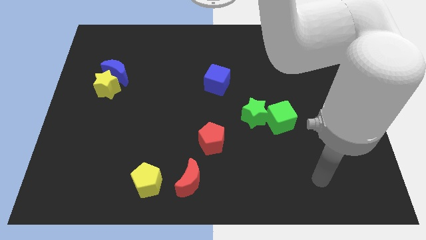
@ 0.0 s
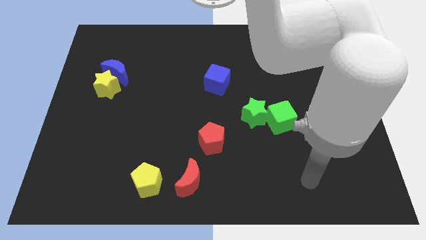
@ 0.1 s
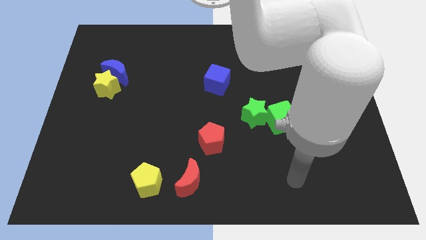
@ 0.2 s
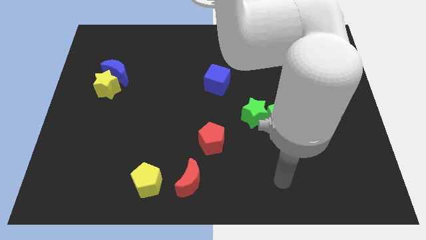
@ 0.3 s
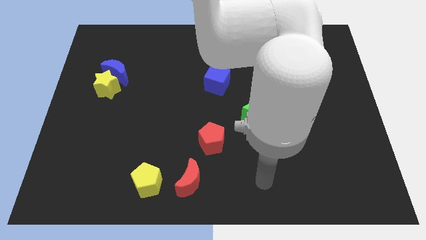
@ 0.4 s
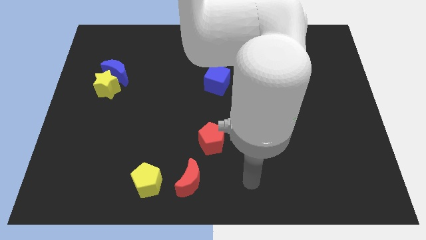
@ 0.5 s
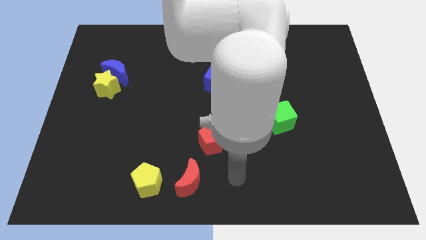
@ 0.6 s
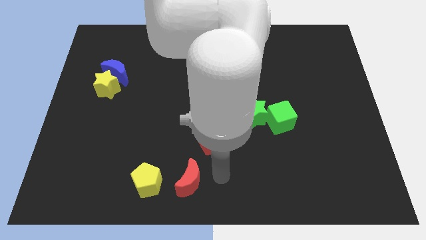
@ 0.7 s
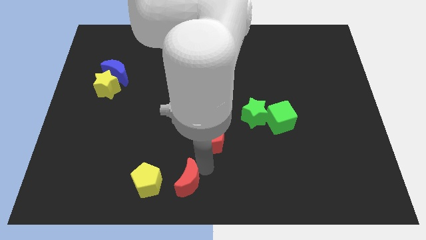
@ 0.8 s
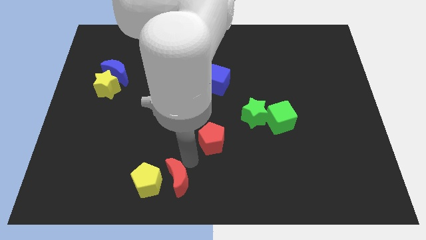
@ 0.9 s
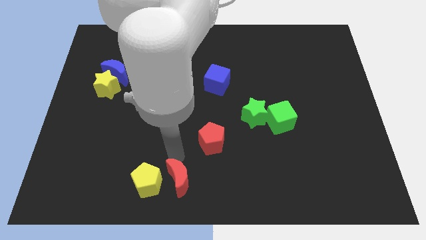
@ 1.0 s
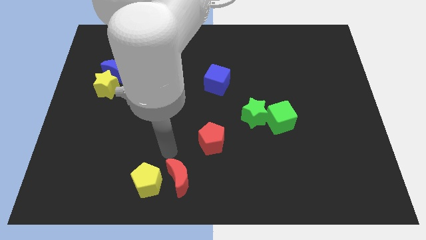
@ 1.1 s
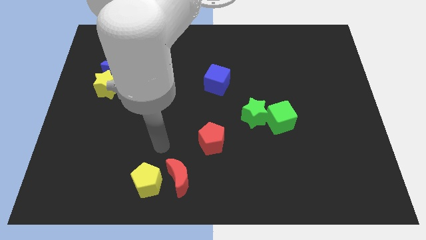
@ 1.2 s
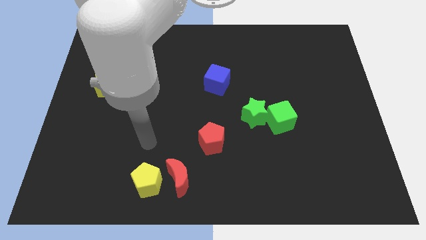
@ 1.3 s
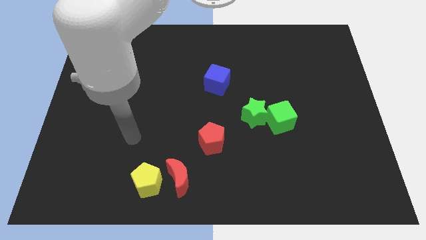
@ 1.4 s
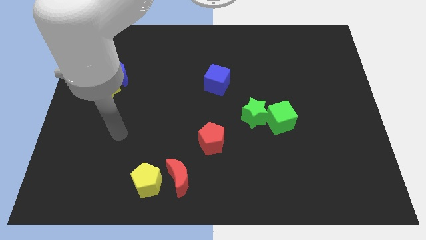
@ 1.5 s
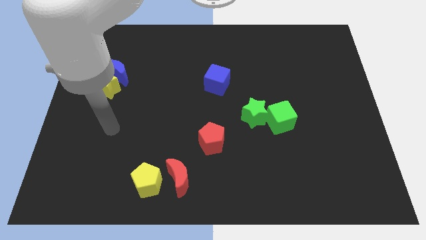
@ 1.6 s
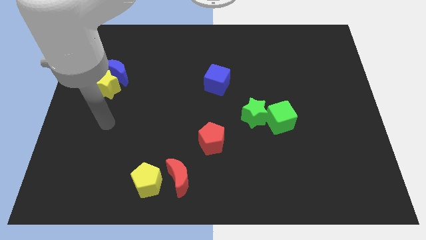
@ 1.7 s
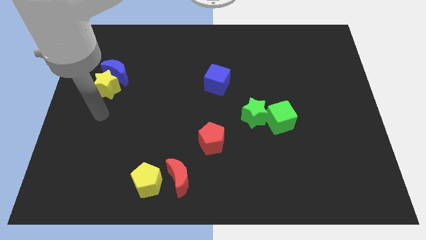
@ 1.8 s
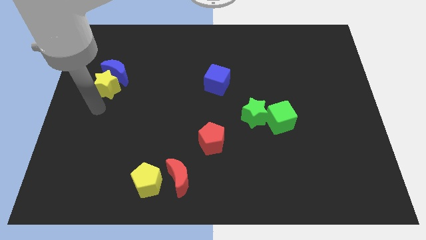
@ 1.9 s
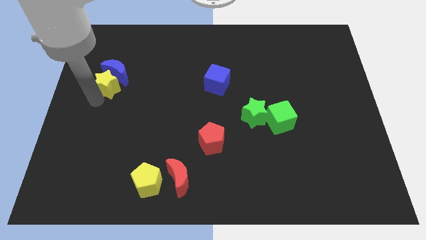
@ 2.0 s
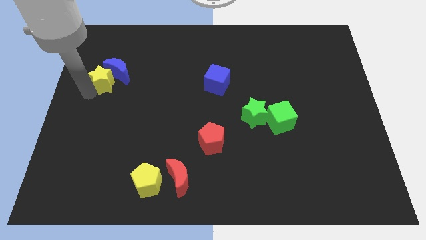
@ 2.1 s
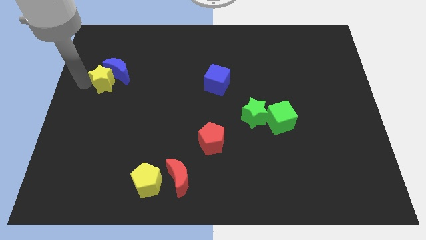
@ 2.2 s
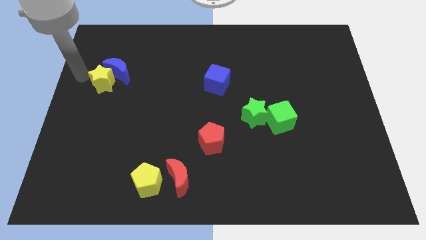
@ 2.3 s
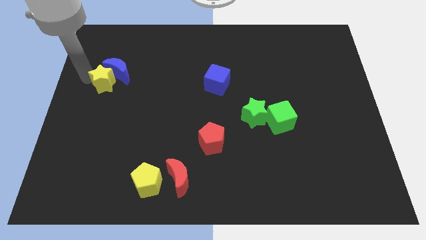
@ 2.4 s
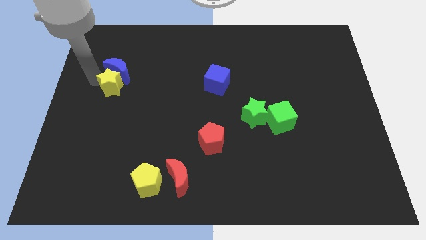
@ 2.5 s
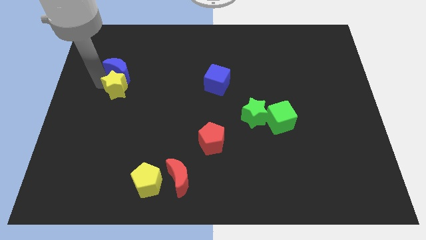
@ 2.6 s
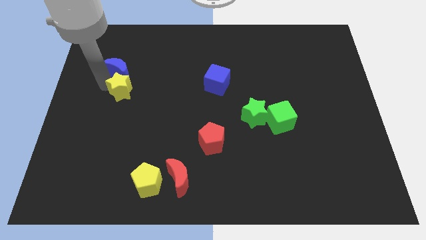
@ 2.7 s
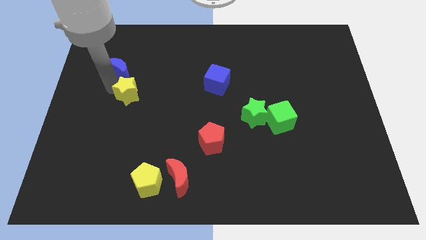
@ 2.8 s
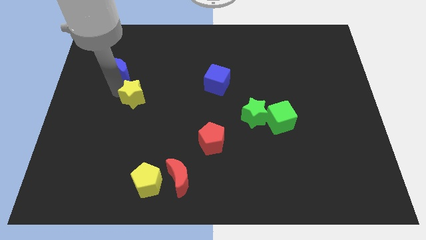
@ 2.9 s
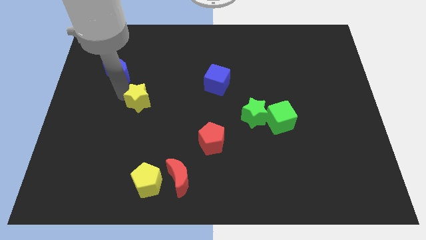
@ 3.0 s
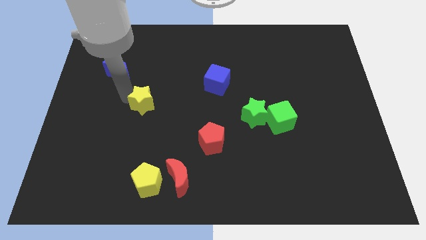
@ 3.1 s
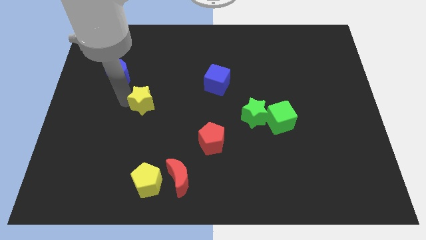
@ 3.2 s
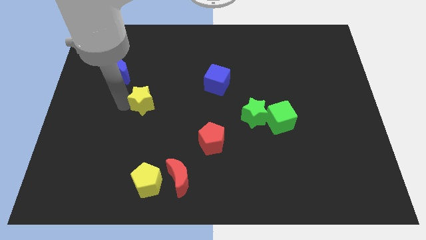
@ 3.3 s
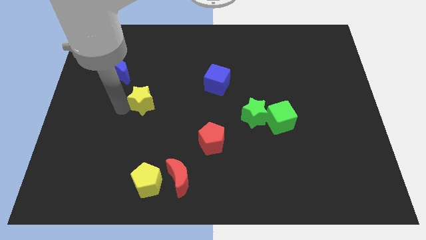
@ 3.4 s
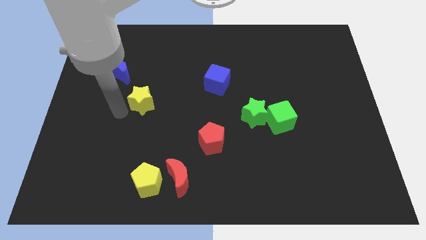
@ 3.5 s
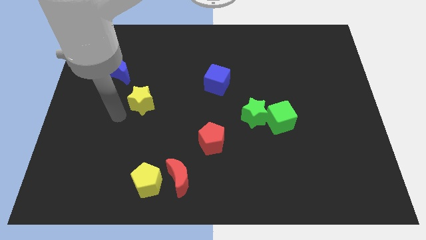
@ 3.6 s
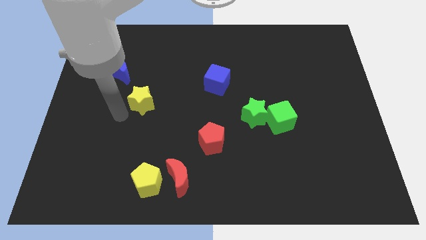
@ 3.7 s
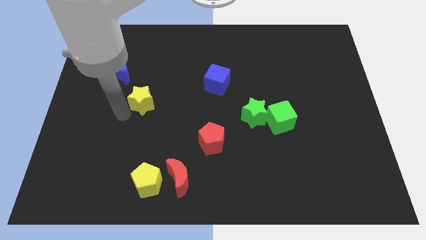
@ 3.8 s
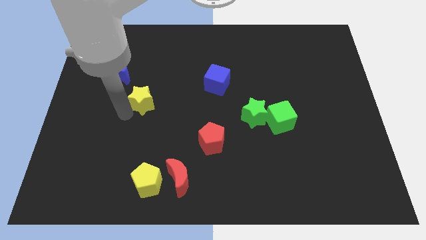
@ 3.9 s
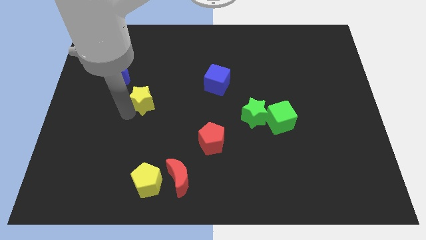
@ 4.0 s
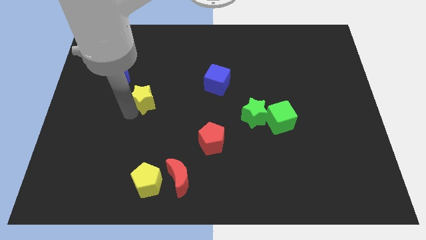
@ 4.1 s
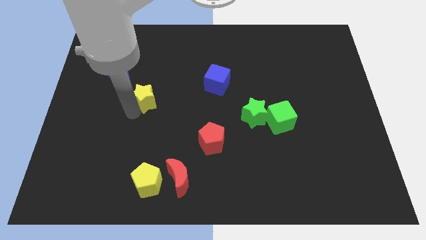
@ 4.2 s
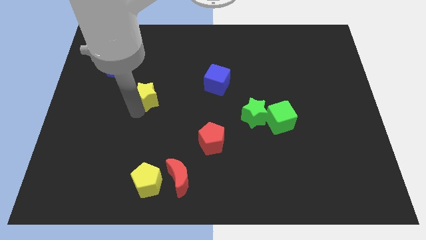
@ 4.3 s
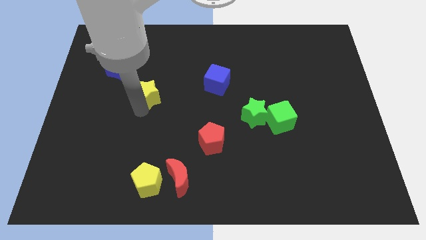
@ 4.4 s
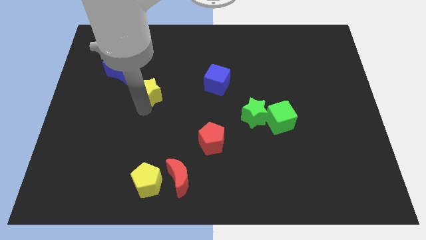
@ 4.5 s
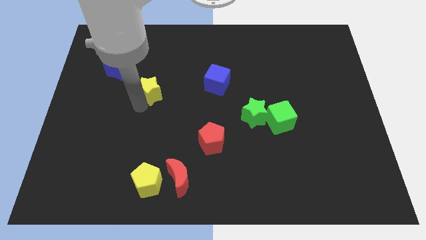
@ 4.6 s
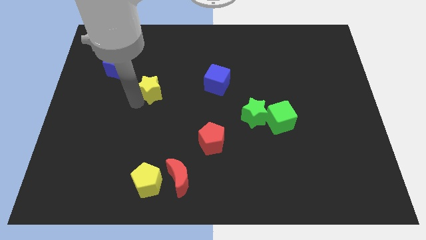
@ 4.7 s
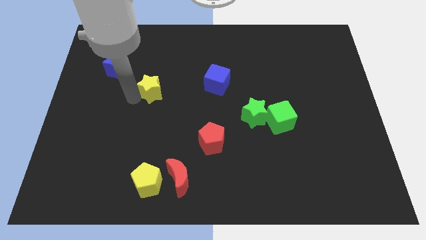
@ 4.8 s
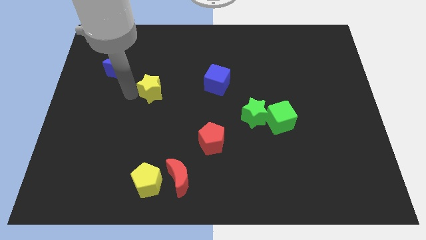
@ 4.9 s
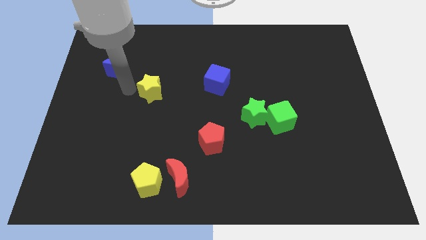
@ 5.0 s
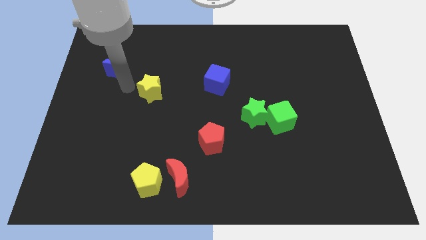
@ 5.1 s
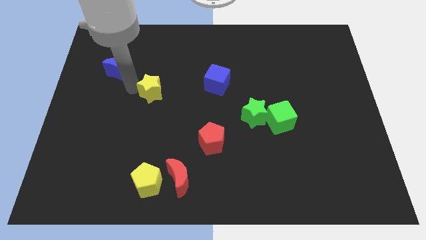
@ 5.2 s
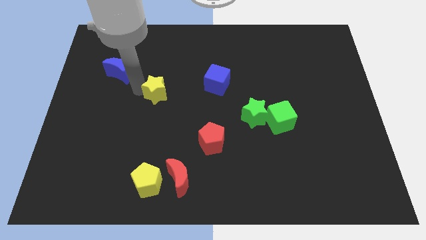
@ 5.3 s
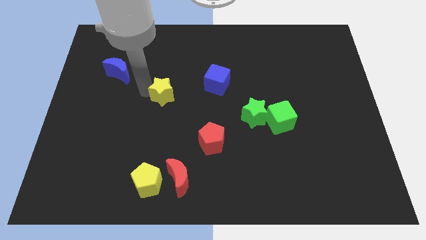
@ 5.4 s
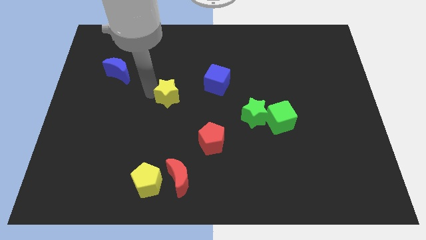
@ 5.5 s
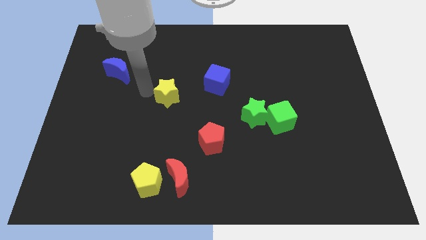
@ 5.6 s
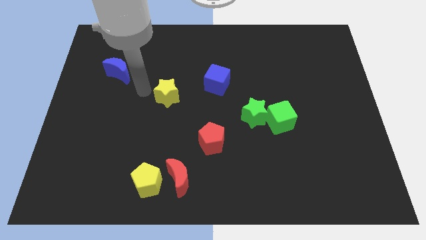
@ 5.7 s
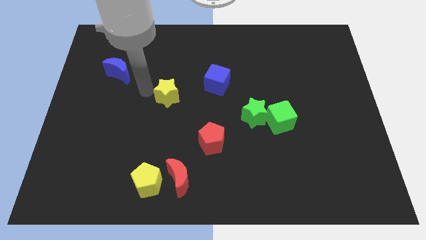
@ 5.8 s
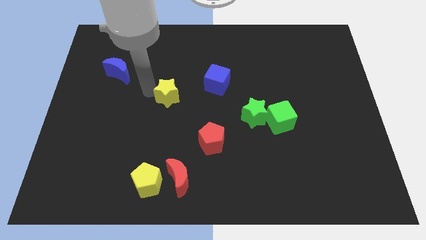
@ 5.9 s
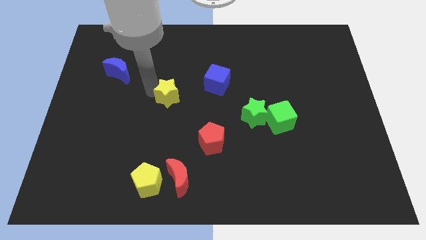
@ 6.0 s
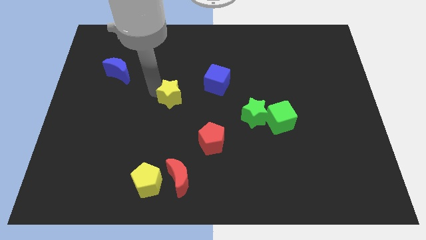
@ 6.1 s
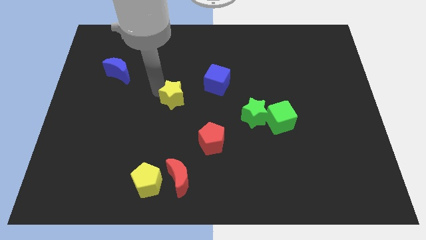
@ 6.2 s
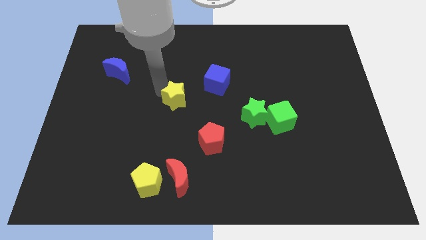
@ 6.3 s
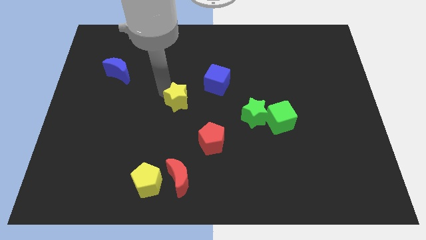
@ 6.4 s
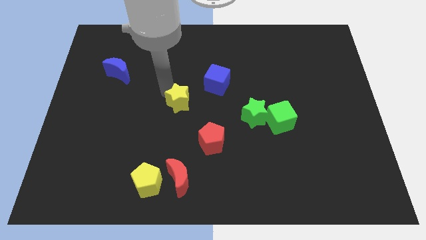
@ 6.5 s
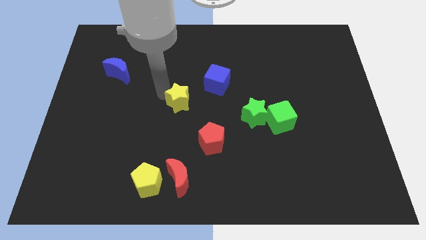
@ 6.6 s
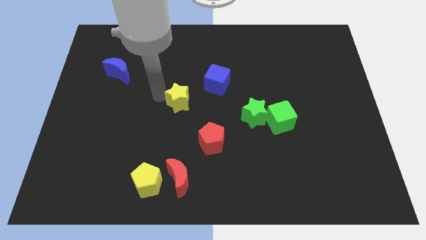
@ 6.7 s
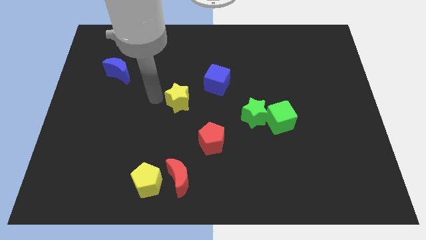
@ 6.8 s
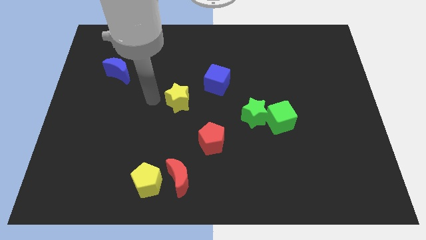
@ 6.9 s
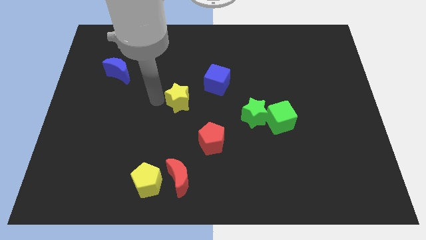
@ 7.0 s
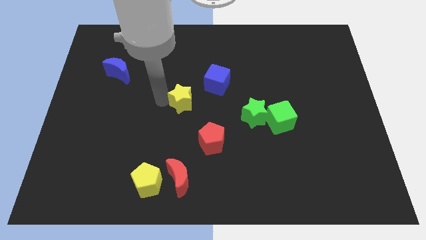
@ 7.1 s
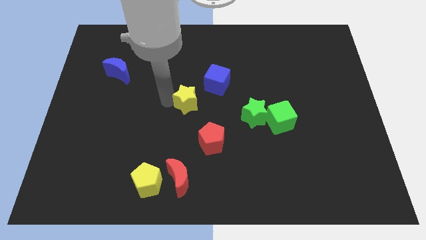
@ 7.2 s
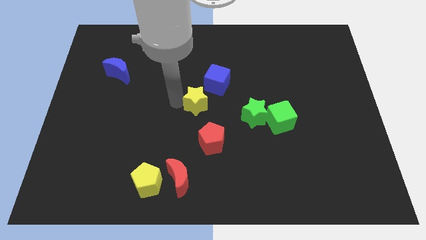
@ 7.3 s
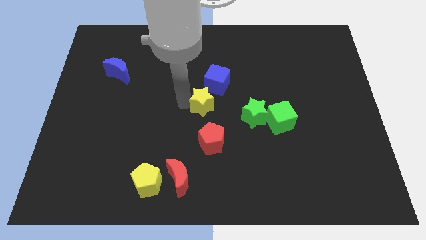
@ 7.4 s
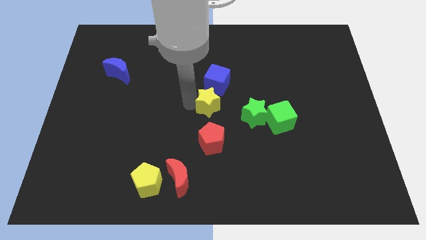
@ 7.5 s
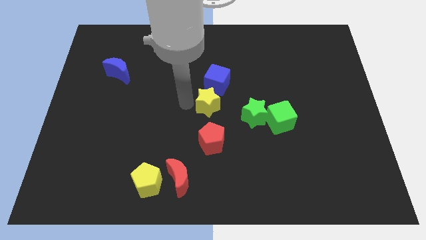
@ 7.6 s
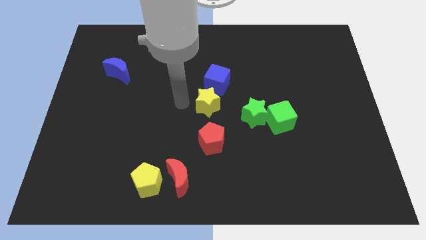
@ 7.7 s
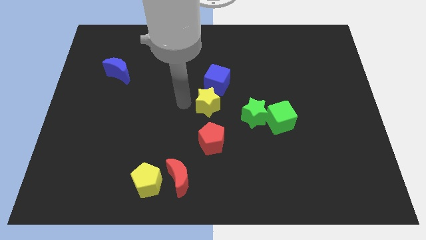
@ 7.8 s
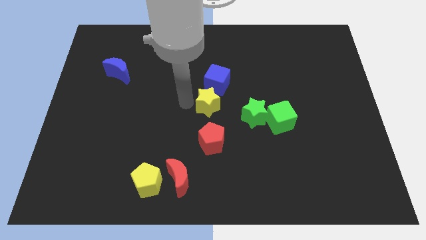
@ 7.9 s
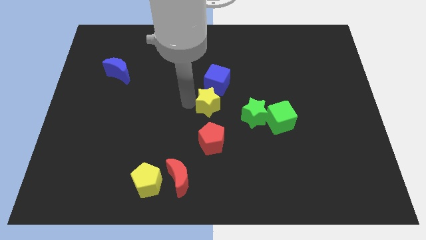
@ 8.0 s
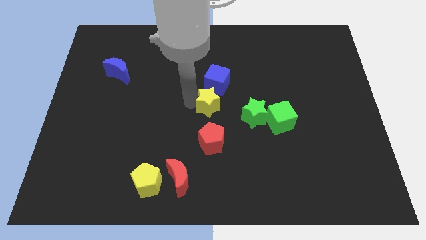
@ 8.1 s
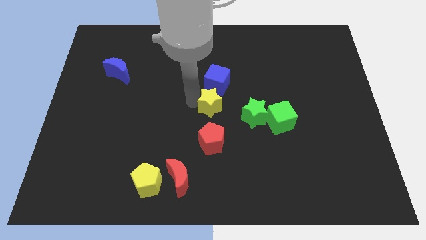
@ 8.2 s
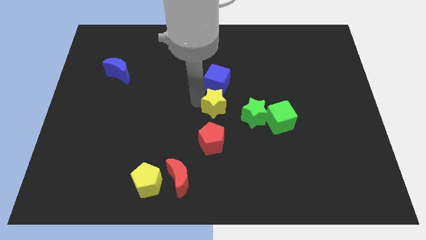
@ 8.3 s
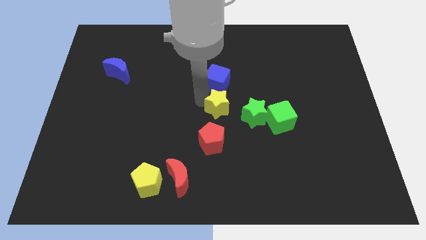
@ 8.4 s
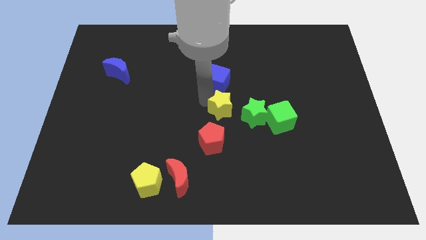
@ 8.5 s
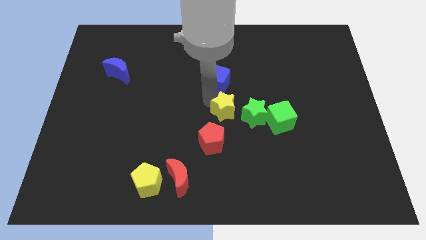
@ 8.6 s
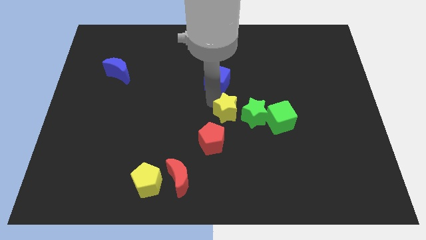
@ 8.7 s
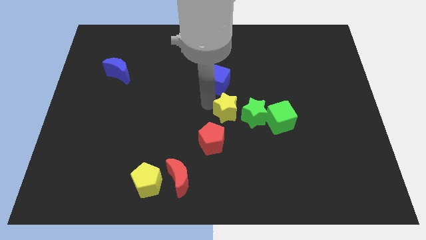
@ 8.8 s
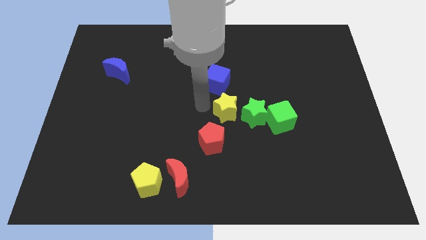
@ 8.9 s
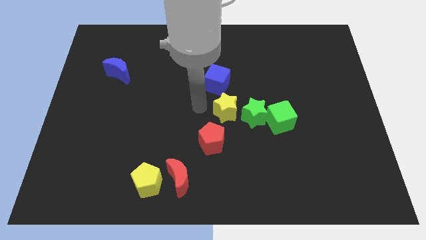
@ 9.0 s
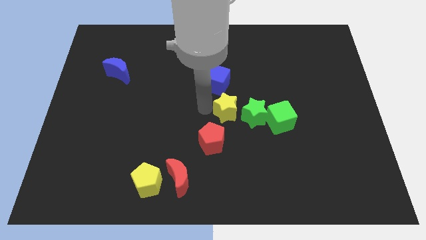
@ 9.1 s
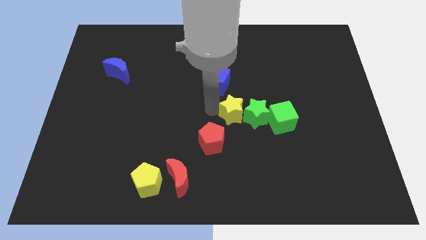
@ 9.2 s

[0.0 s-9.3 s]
put the yellow star close to the green star
